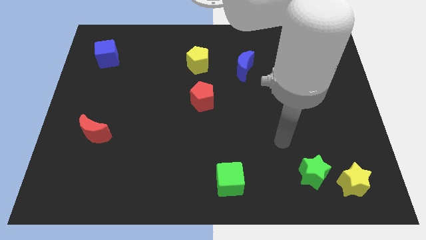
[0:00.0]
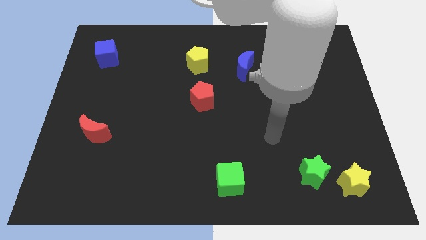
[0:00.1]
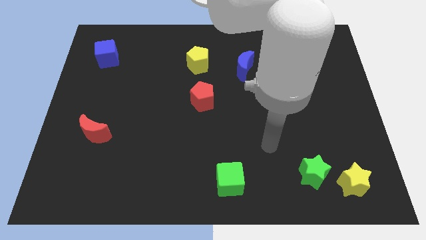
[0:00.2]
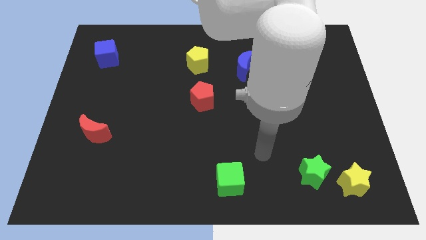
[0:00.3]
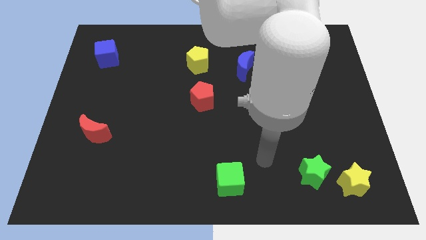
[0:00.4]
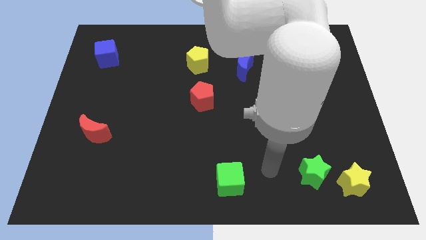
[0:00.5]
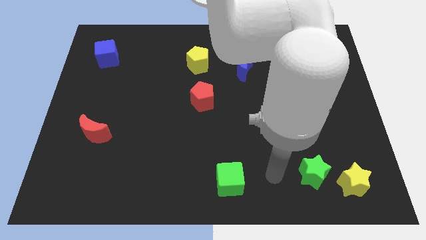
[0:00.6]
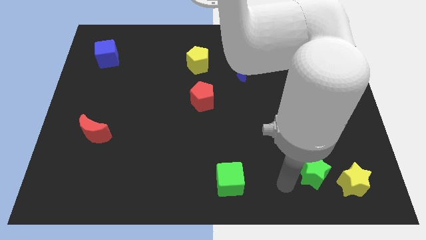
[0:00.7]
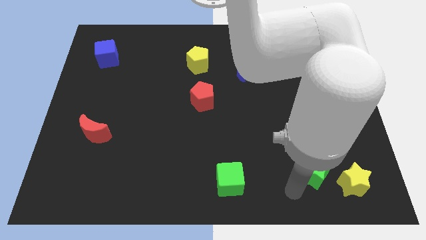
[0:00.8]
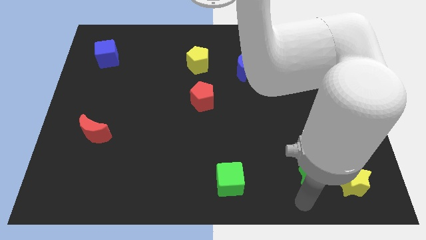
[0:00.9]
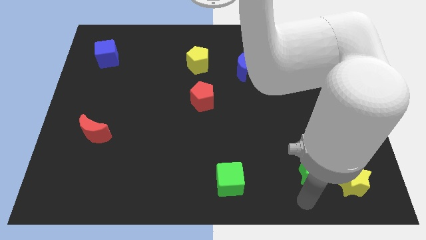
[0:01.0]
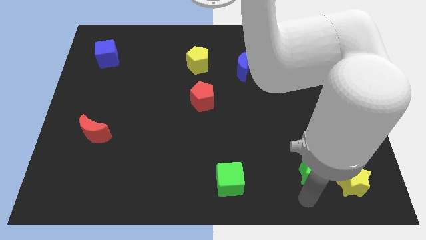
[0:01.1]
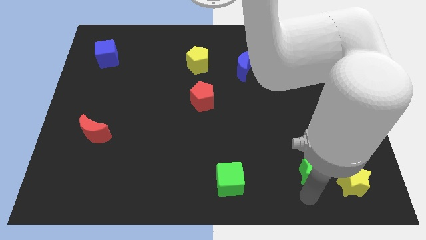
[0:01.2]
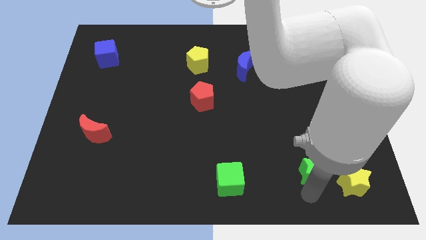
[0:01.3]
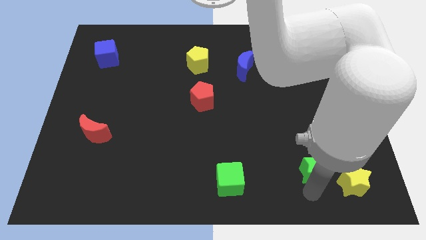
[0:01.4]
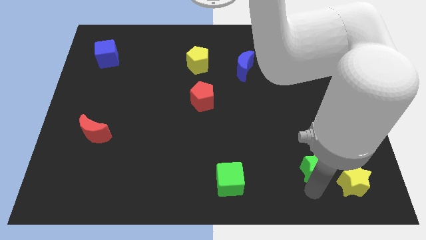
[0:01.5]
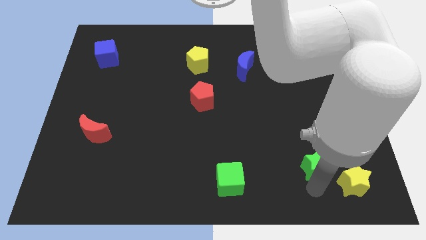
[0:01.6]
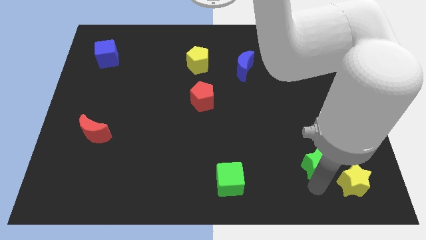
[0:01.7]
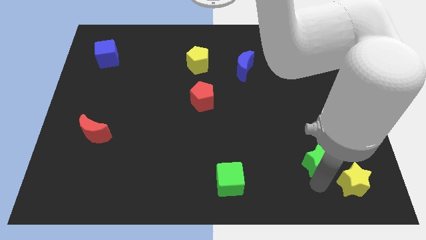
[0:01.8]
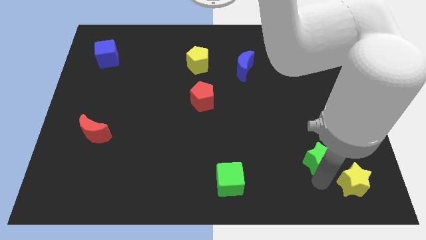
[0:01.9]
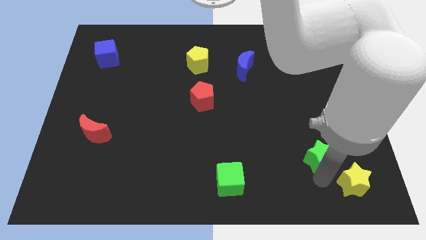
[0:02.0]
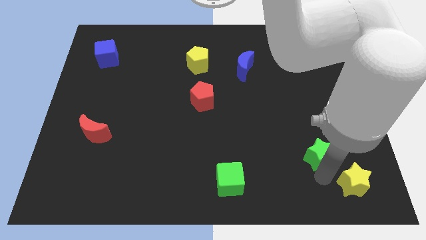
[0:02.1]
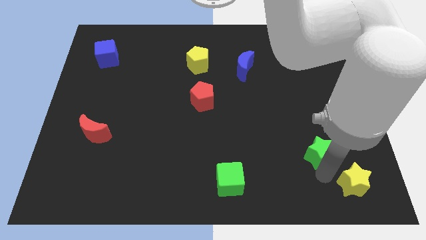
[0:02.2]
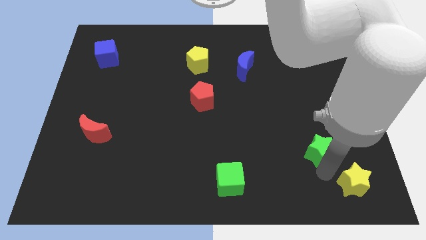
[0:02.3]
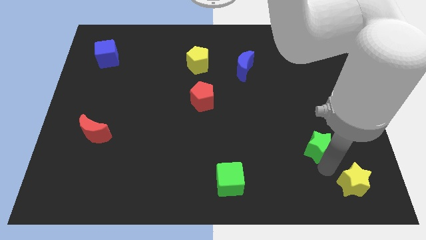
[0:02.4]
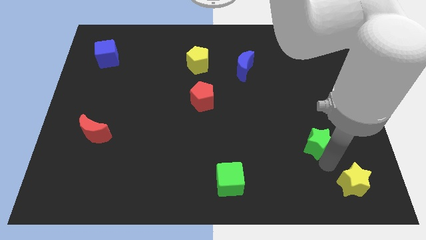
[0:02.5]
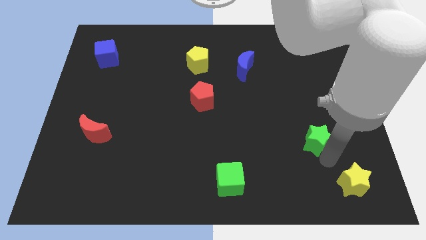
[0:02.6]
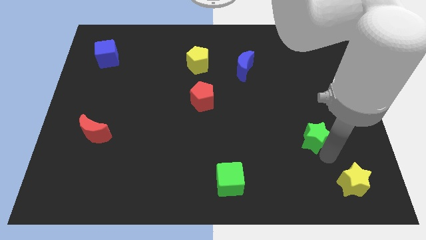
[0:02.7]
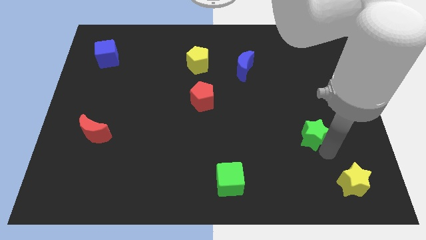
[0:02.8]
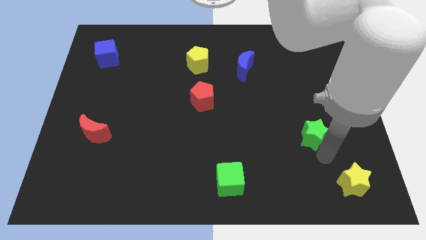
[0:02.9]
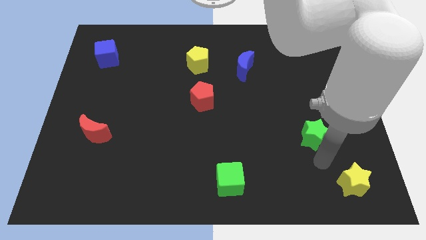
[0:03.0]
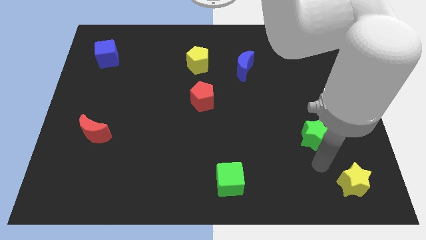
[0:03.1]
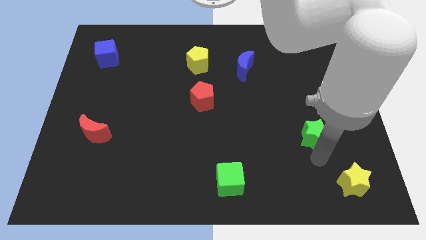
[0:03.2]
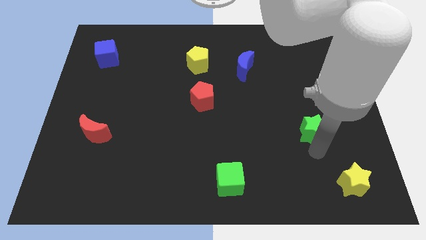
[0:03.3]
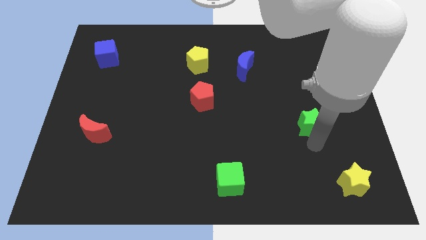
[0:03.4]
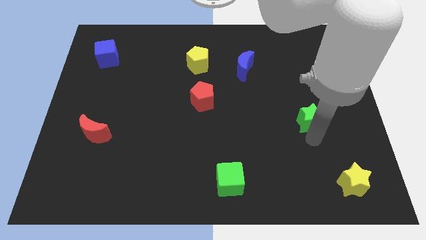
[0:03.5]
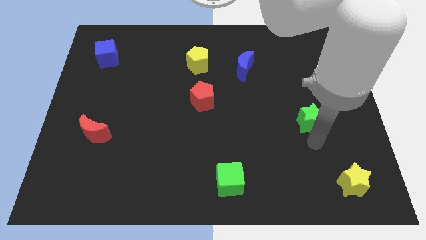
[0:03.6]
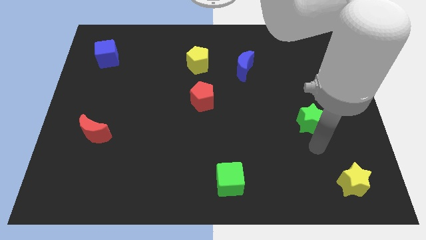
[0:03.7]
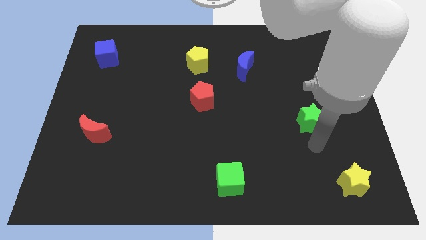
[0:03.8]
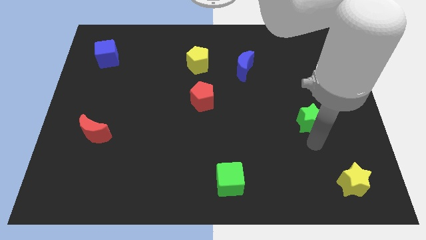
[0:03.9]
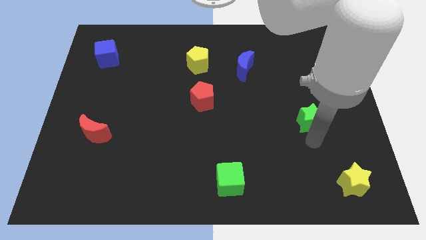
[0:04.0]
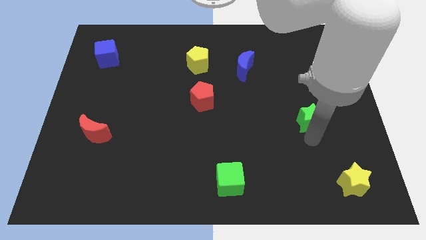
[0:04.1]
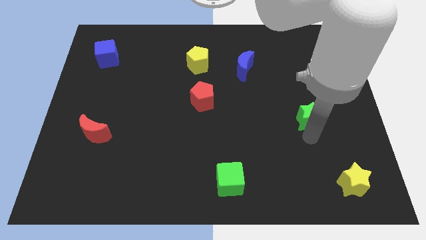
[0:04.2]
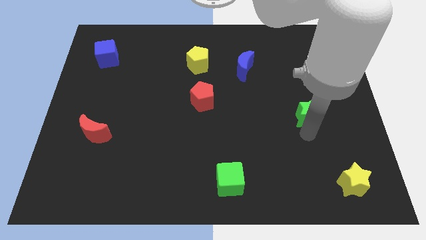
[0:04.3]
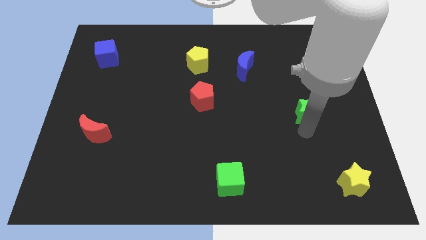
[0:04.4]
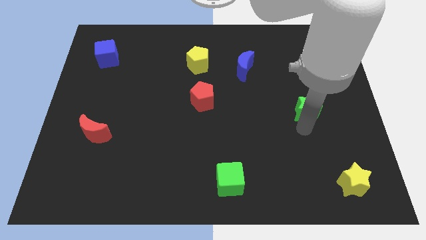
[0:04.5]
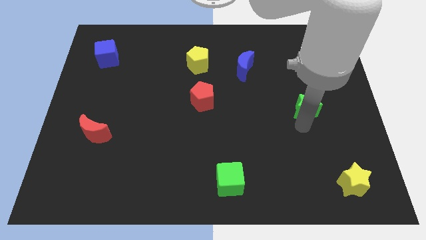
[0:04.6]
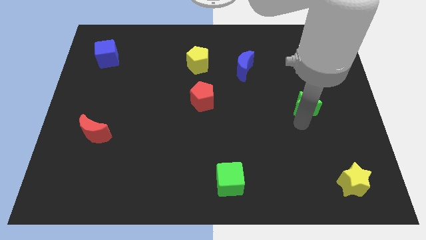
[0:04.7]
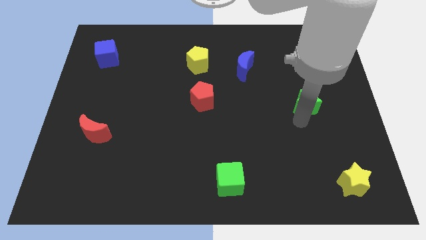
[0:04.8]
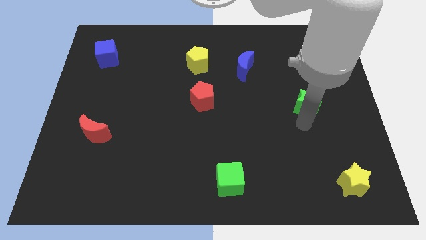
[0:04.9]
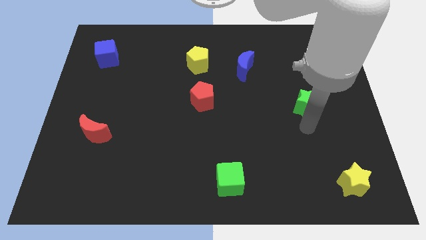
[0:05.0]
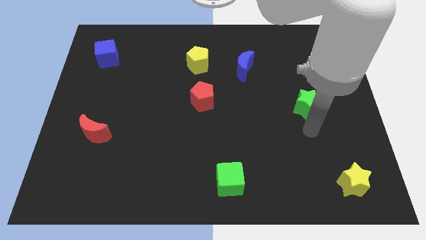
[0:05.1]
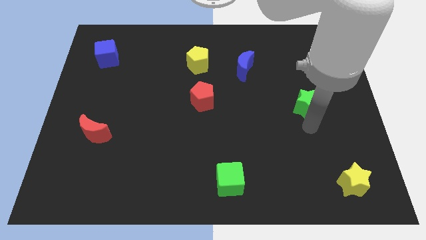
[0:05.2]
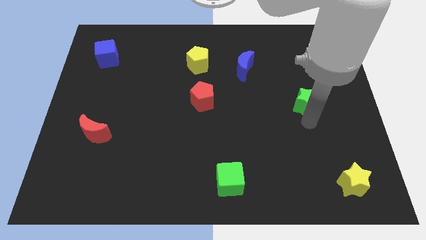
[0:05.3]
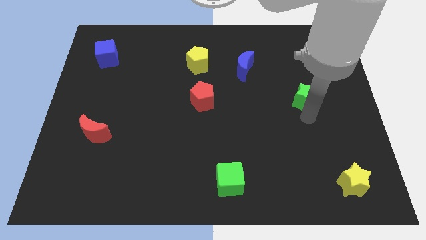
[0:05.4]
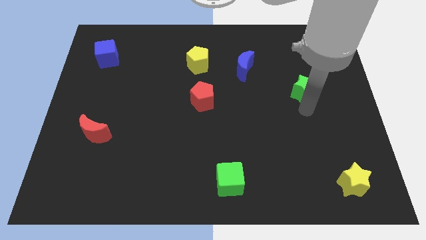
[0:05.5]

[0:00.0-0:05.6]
push the green star upwards

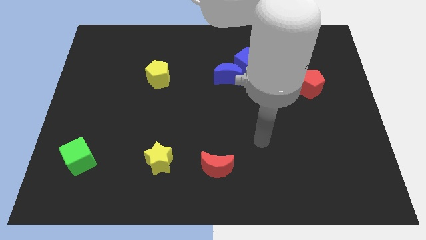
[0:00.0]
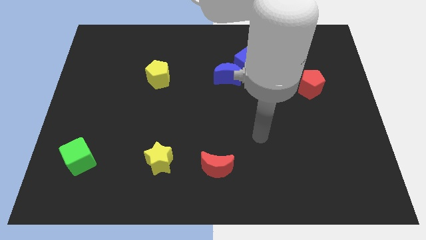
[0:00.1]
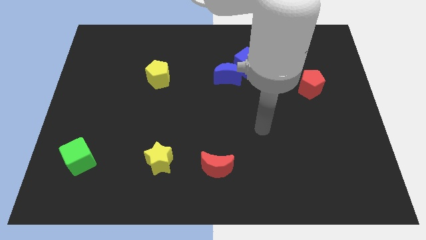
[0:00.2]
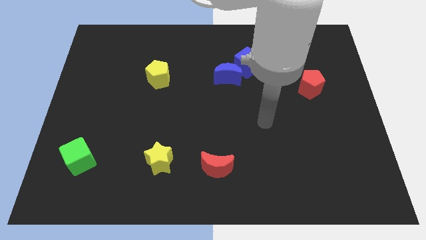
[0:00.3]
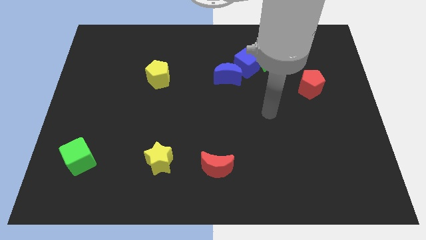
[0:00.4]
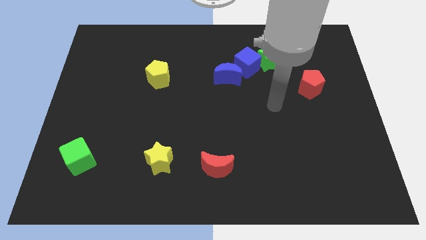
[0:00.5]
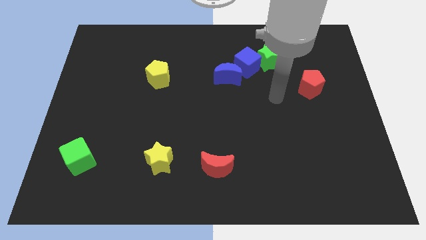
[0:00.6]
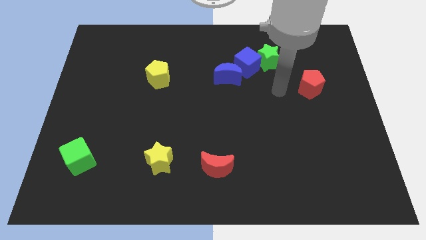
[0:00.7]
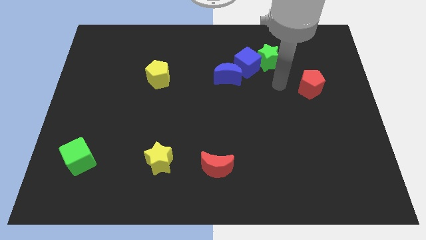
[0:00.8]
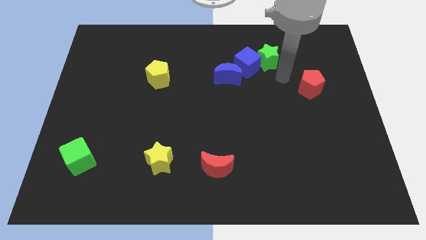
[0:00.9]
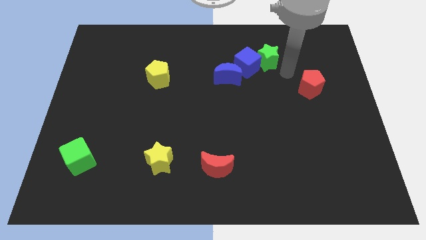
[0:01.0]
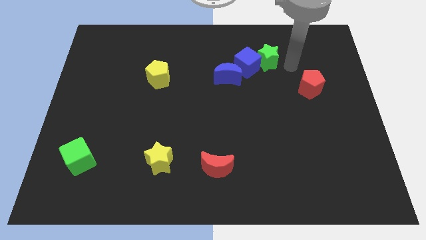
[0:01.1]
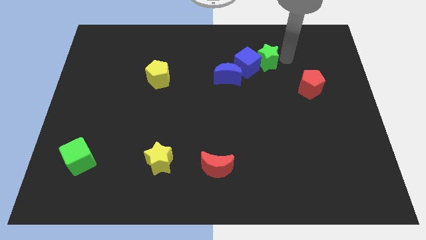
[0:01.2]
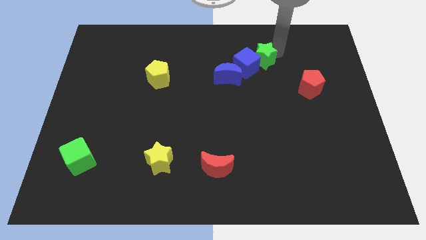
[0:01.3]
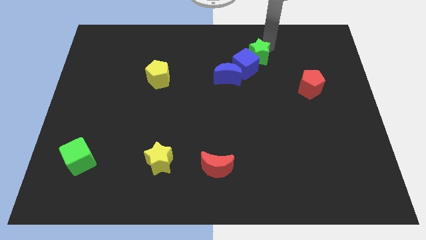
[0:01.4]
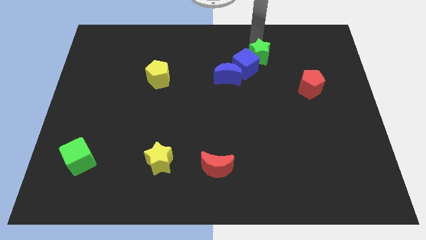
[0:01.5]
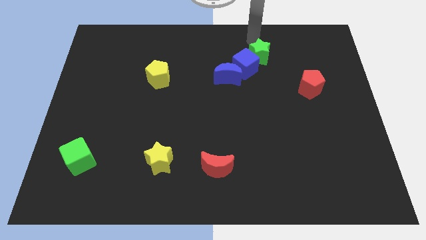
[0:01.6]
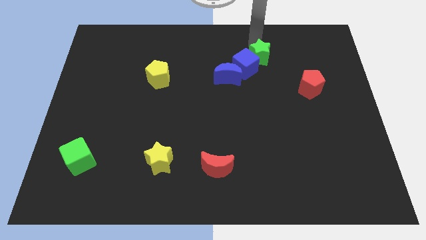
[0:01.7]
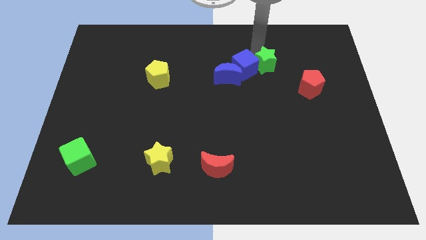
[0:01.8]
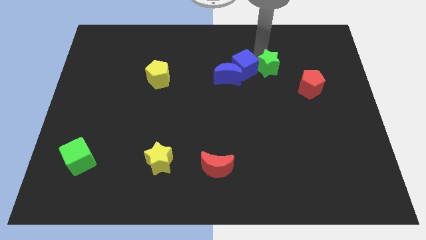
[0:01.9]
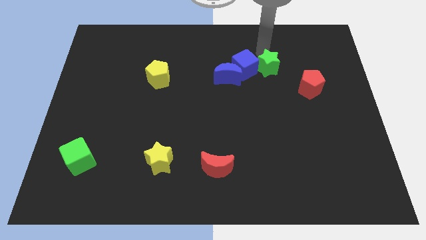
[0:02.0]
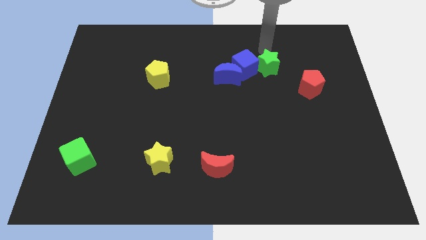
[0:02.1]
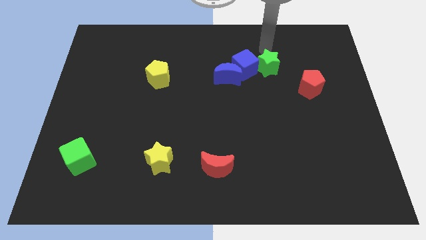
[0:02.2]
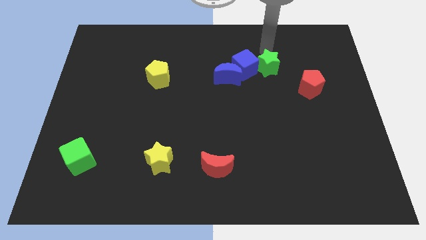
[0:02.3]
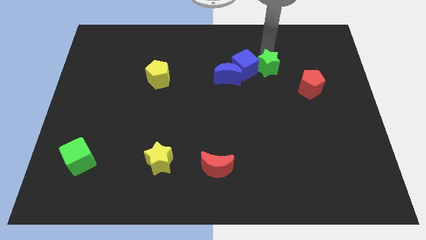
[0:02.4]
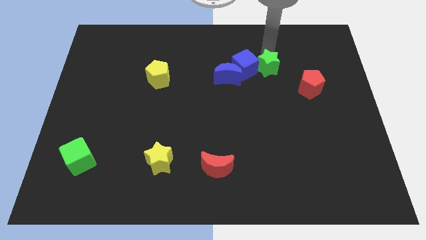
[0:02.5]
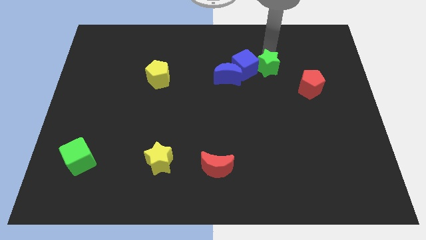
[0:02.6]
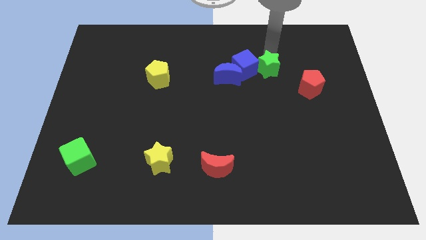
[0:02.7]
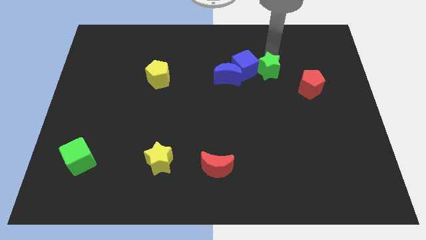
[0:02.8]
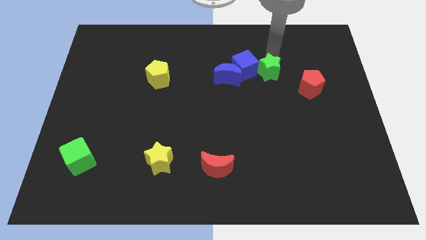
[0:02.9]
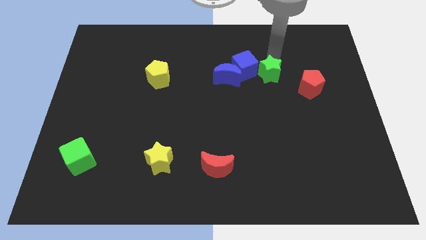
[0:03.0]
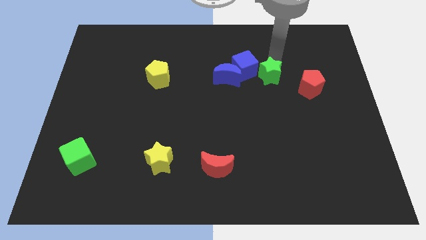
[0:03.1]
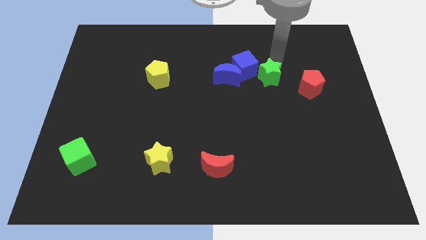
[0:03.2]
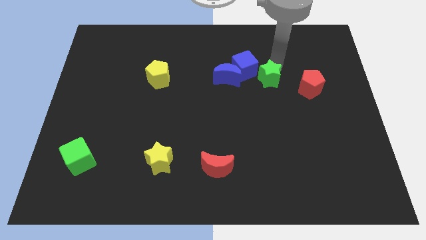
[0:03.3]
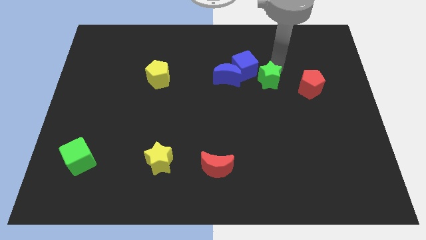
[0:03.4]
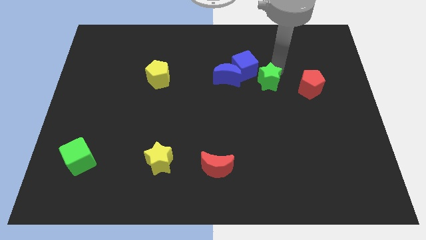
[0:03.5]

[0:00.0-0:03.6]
push the green star a bit downwards
